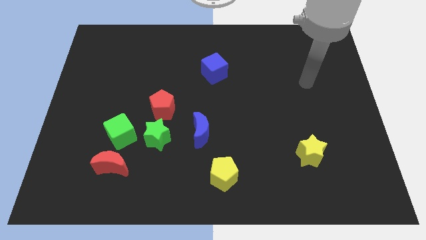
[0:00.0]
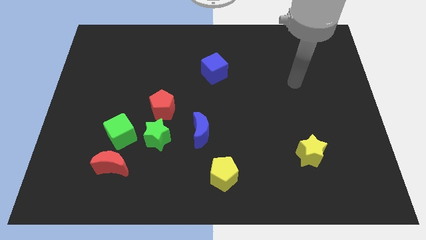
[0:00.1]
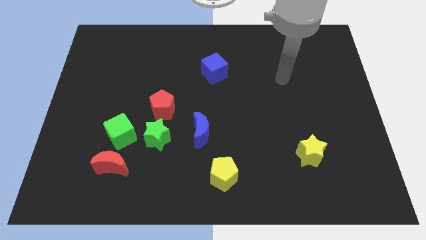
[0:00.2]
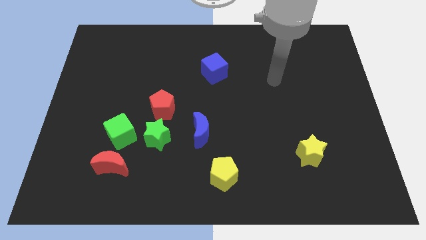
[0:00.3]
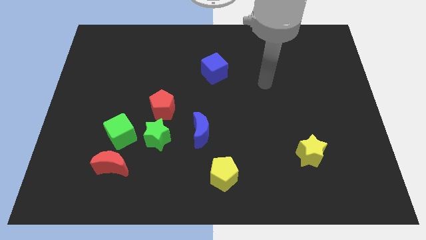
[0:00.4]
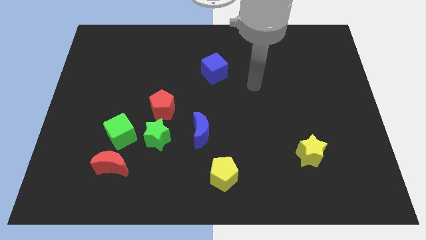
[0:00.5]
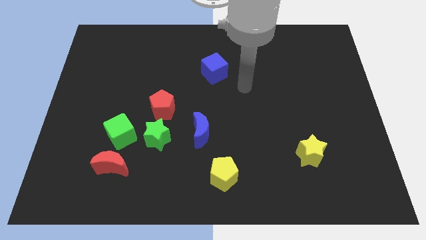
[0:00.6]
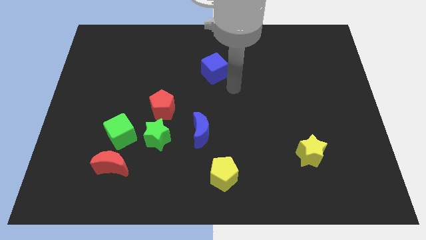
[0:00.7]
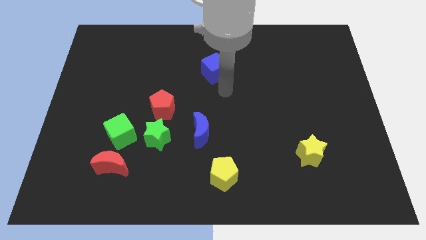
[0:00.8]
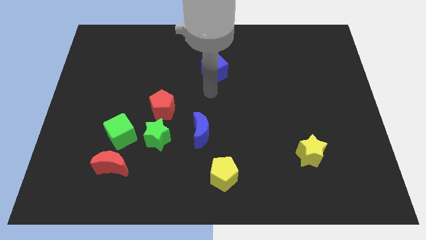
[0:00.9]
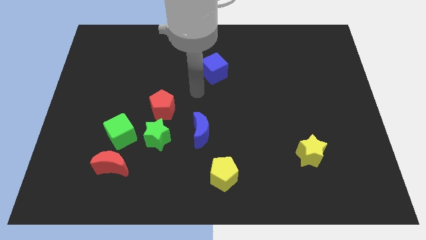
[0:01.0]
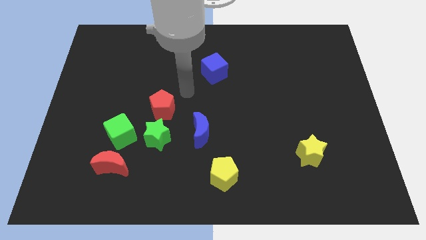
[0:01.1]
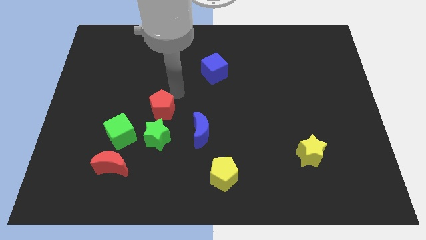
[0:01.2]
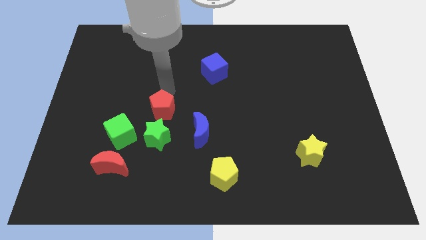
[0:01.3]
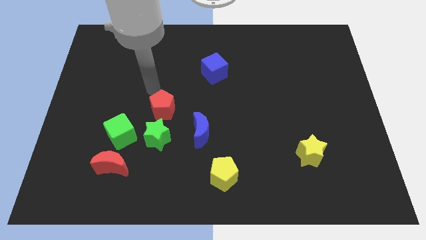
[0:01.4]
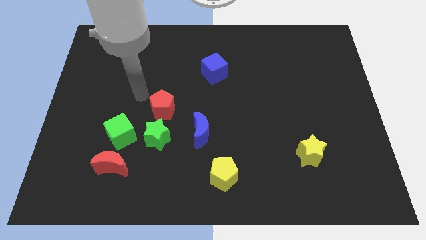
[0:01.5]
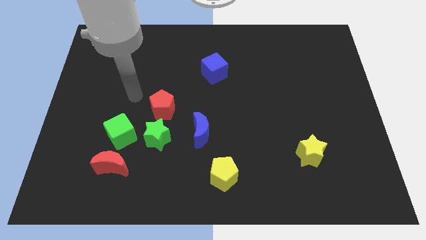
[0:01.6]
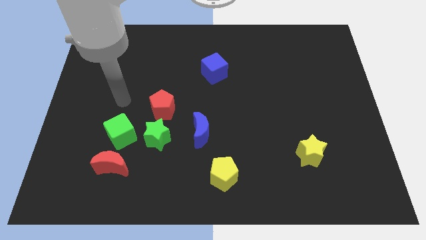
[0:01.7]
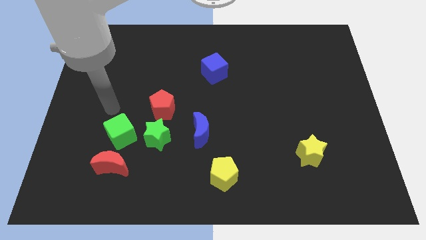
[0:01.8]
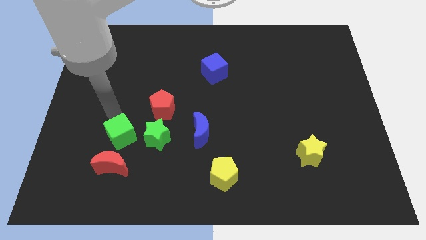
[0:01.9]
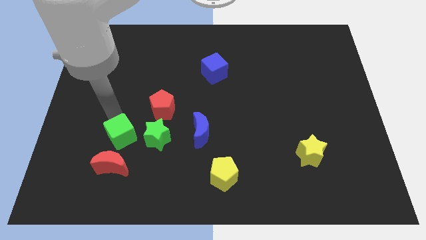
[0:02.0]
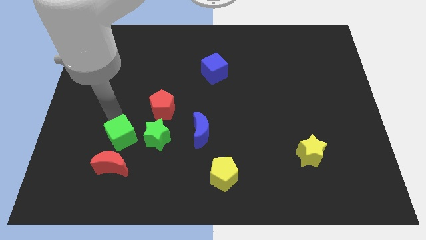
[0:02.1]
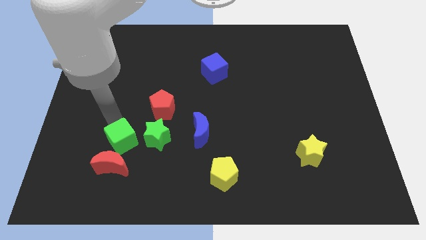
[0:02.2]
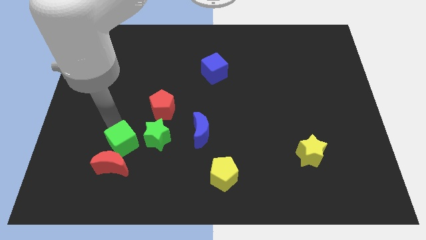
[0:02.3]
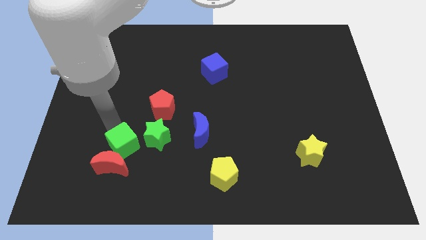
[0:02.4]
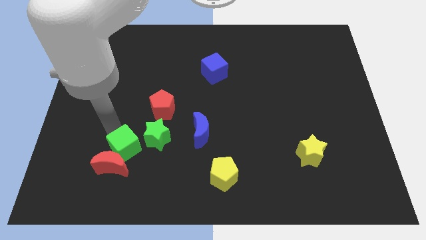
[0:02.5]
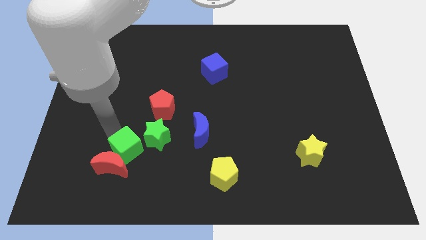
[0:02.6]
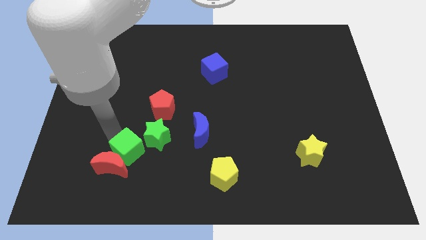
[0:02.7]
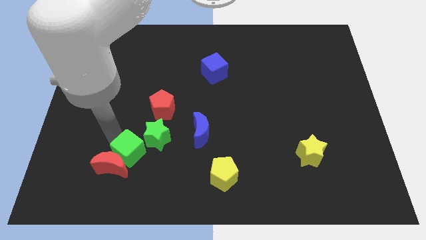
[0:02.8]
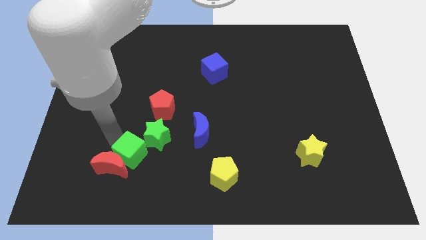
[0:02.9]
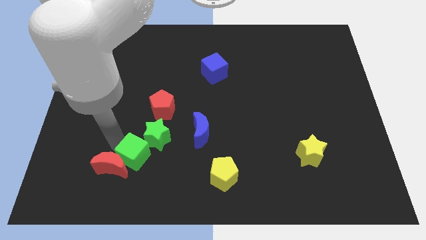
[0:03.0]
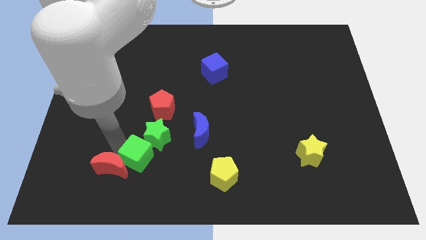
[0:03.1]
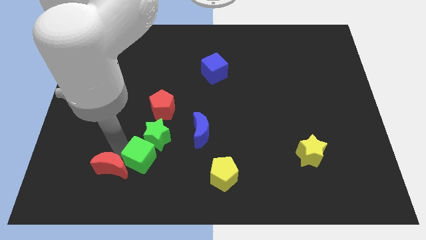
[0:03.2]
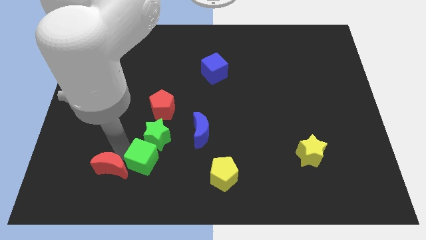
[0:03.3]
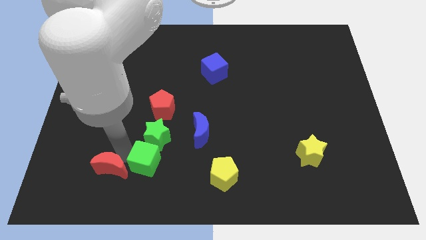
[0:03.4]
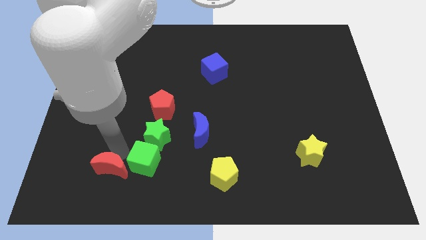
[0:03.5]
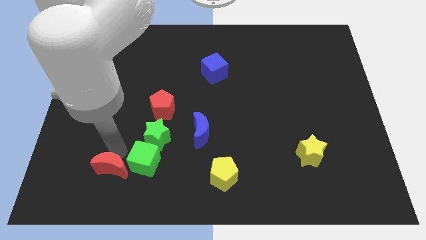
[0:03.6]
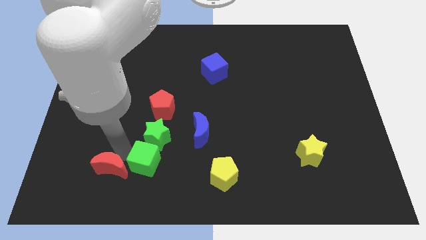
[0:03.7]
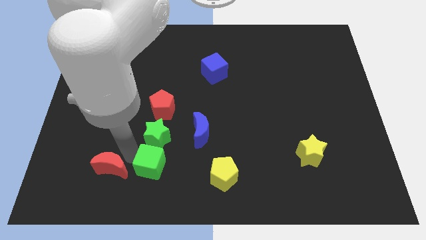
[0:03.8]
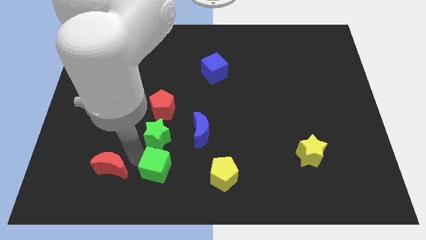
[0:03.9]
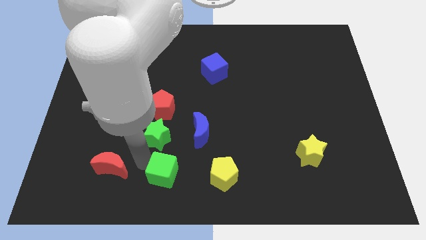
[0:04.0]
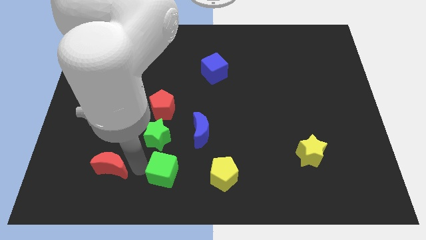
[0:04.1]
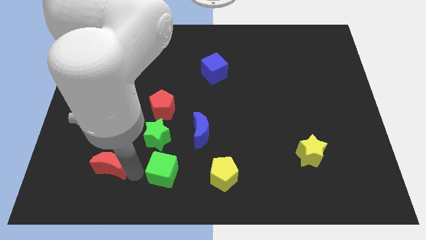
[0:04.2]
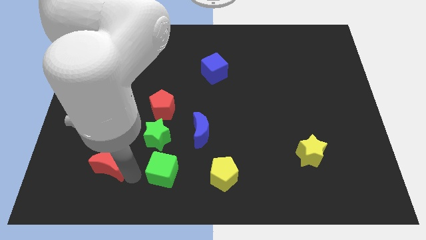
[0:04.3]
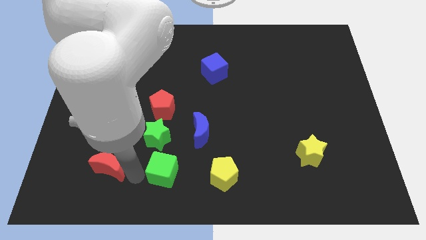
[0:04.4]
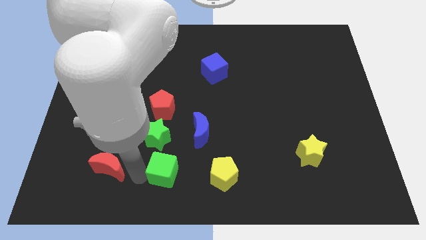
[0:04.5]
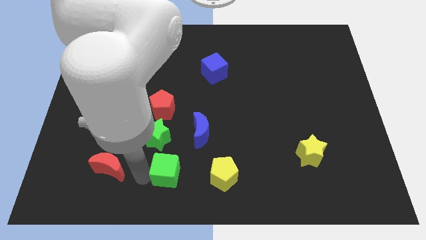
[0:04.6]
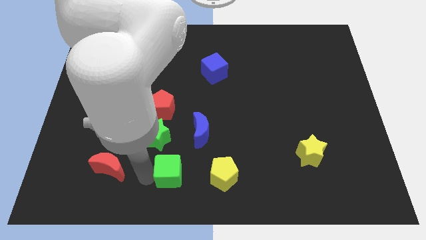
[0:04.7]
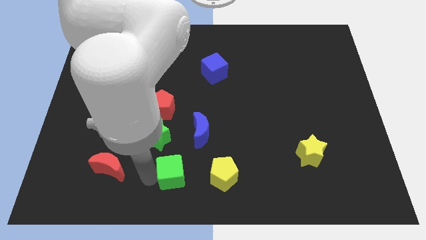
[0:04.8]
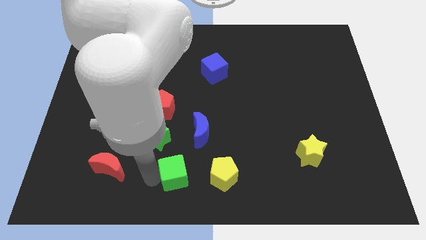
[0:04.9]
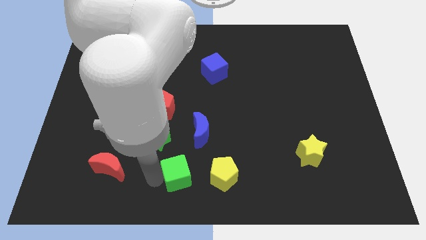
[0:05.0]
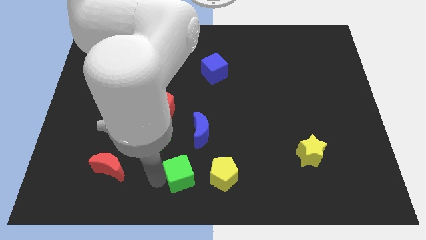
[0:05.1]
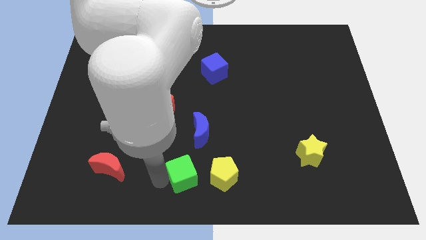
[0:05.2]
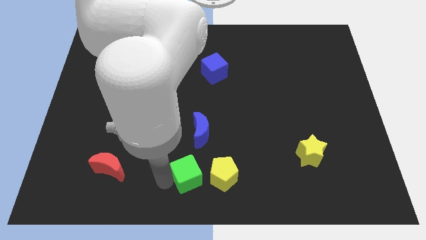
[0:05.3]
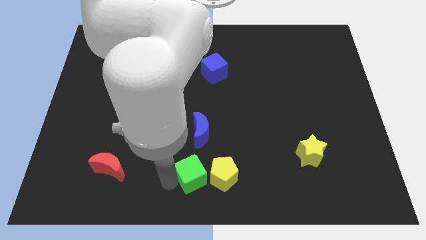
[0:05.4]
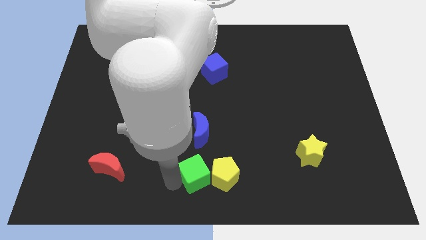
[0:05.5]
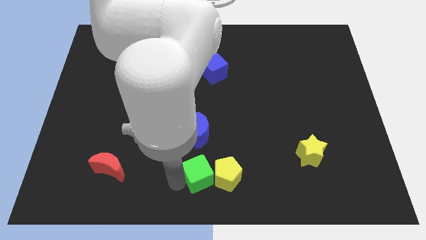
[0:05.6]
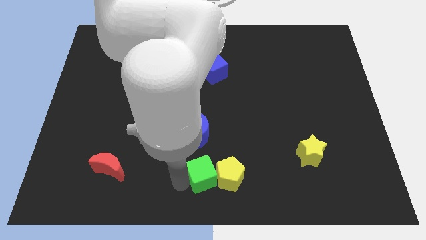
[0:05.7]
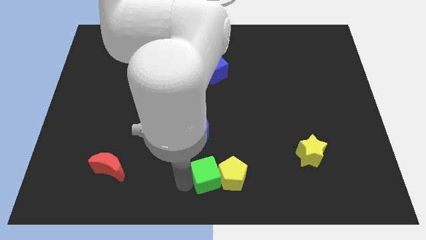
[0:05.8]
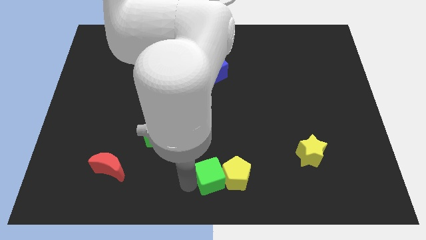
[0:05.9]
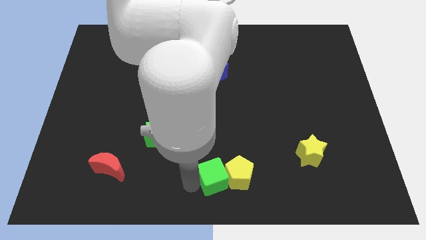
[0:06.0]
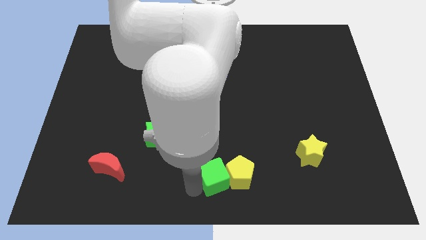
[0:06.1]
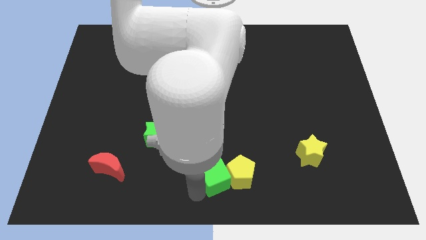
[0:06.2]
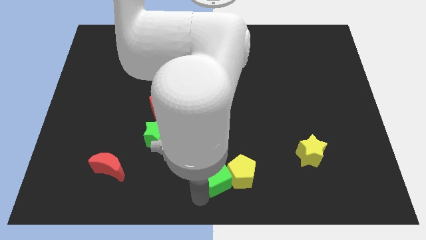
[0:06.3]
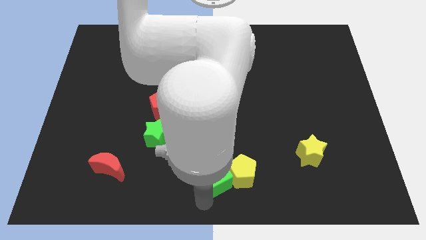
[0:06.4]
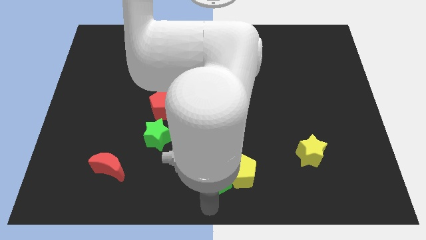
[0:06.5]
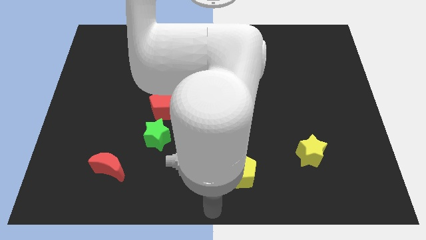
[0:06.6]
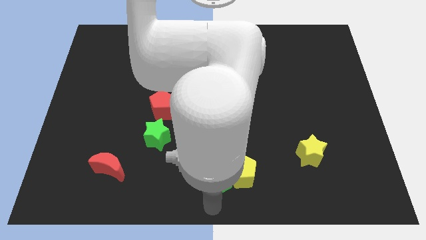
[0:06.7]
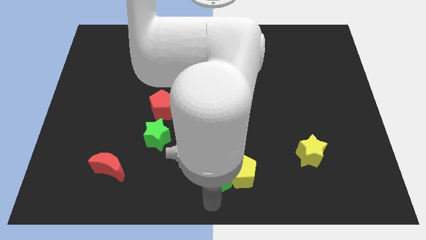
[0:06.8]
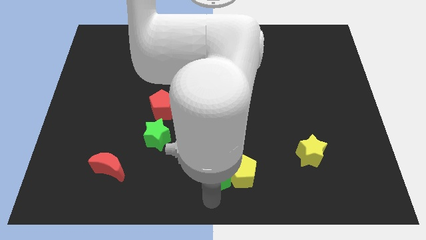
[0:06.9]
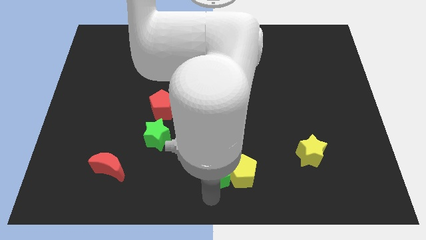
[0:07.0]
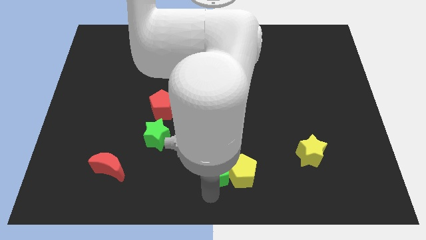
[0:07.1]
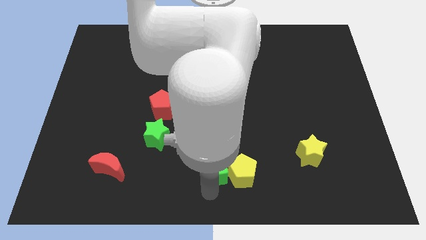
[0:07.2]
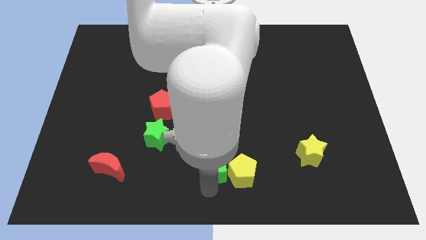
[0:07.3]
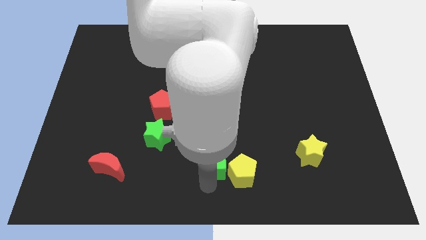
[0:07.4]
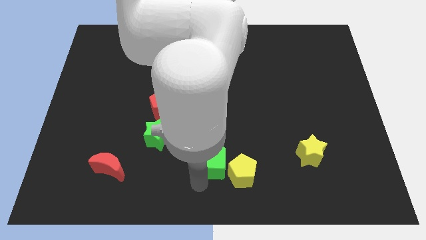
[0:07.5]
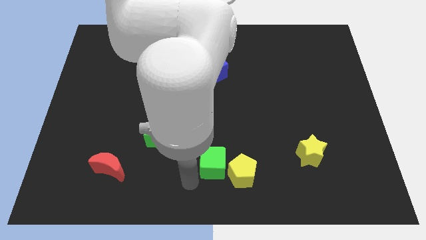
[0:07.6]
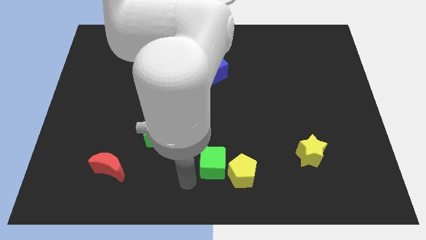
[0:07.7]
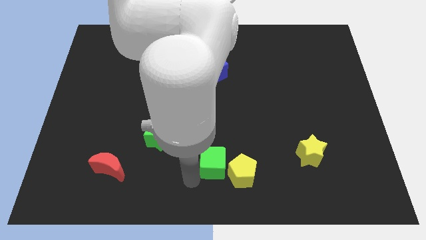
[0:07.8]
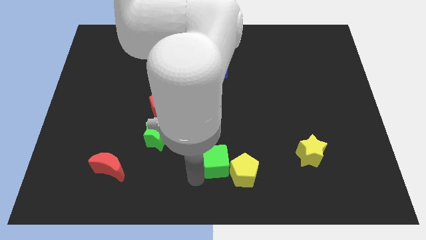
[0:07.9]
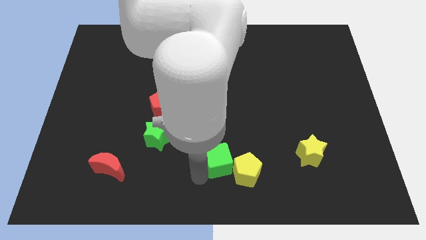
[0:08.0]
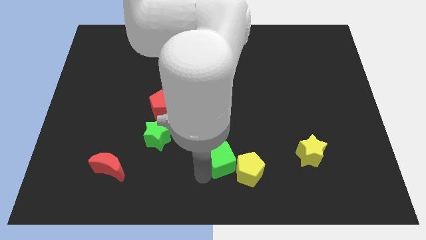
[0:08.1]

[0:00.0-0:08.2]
push the green cube to the right
